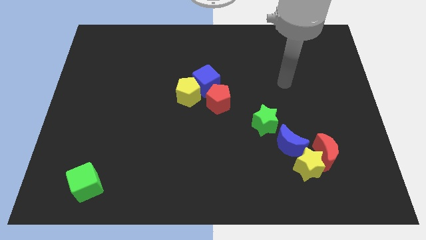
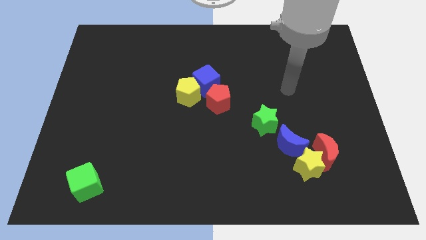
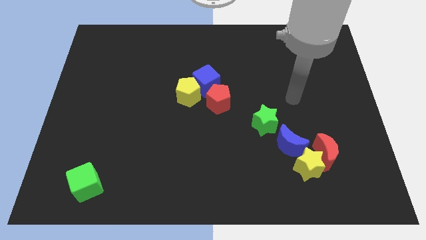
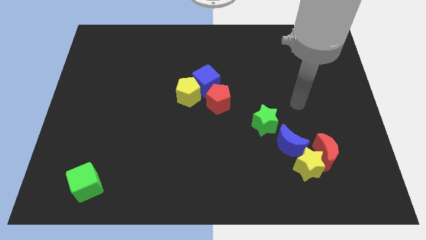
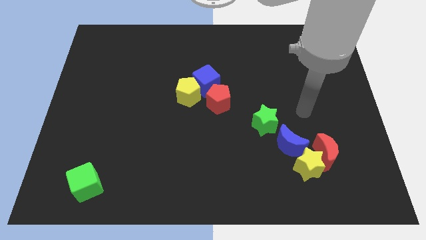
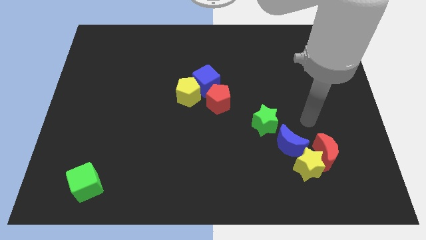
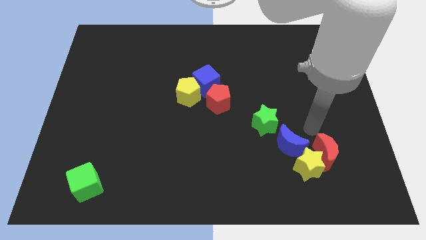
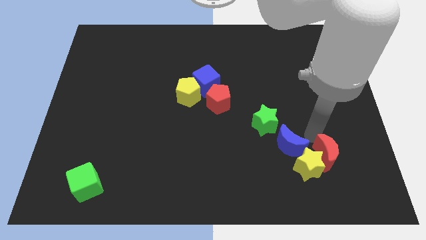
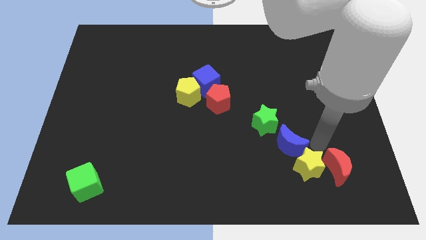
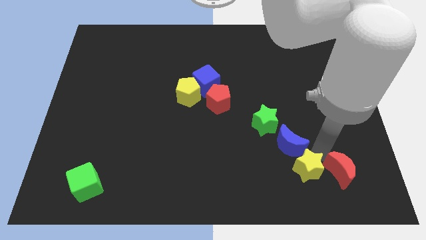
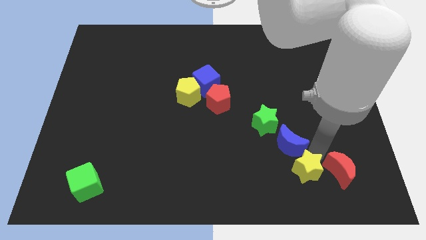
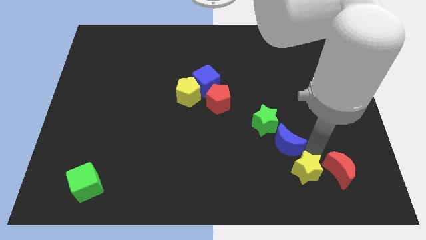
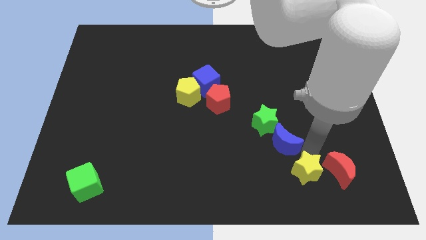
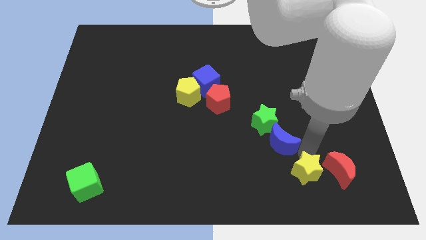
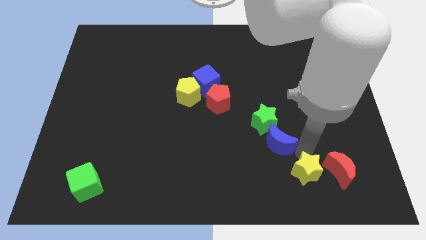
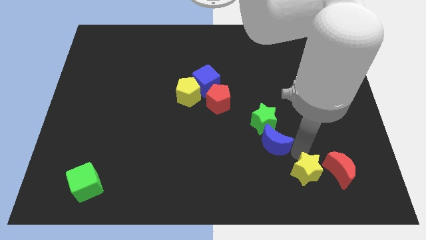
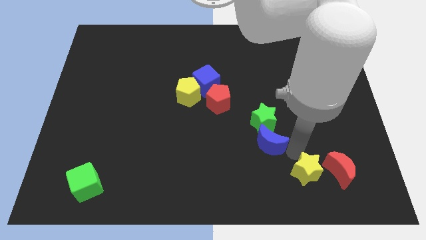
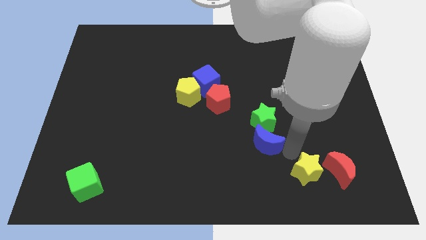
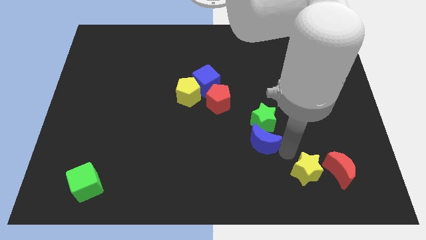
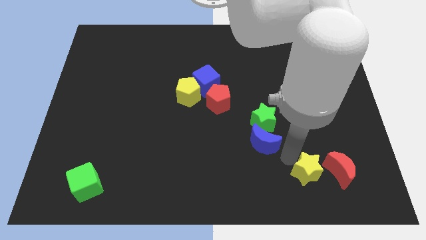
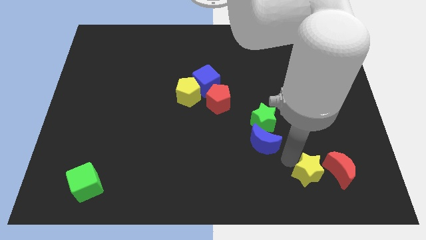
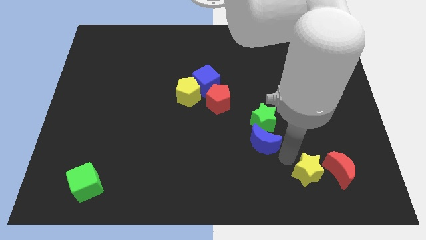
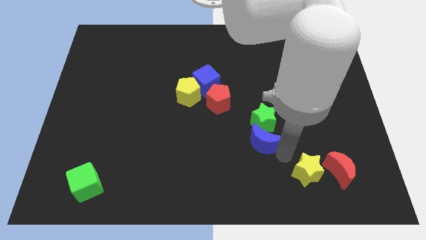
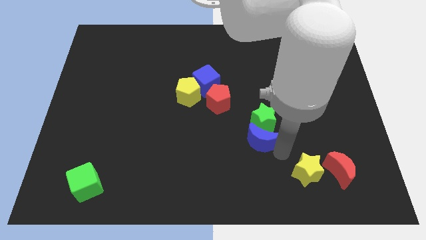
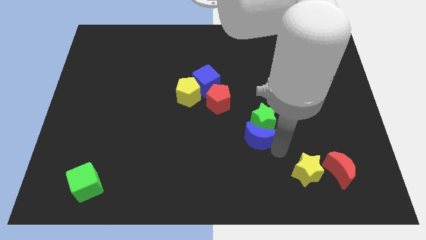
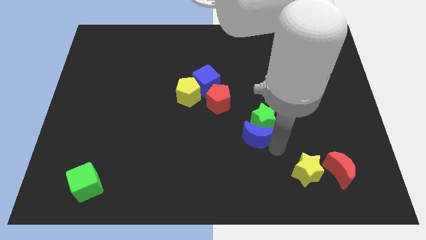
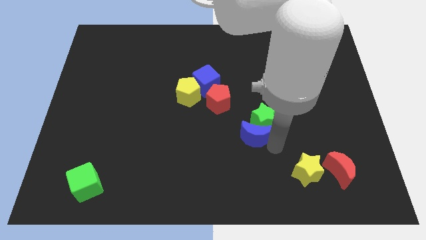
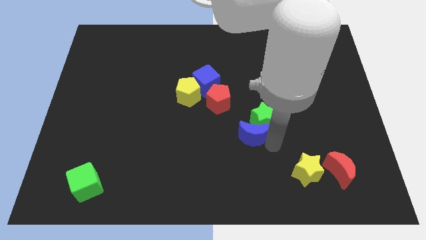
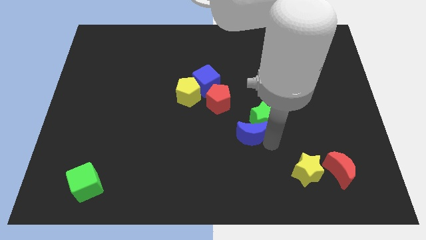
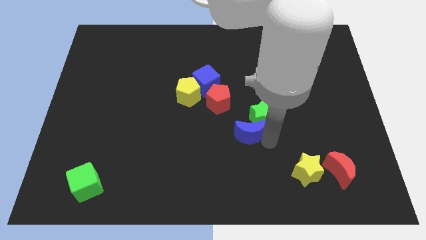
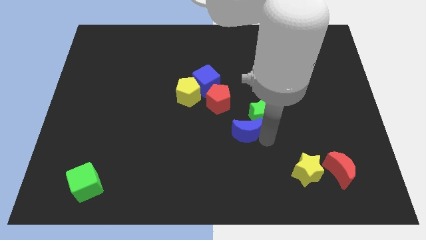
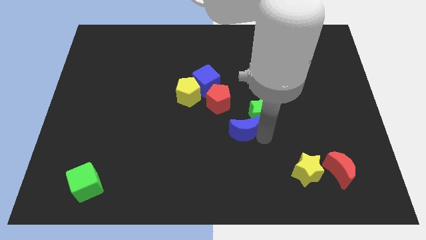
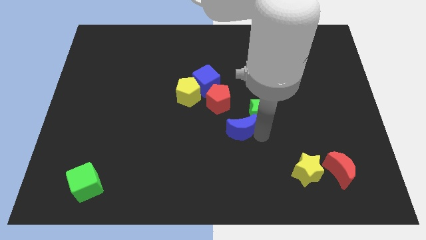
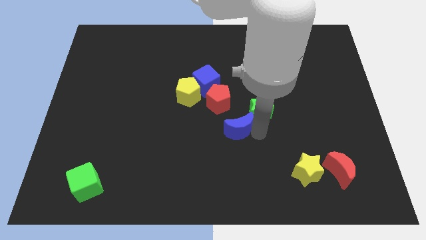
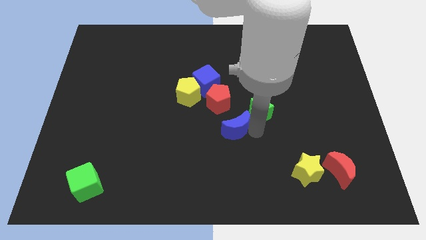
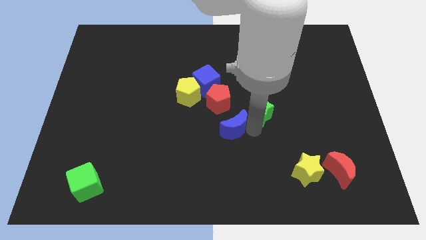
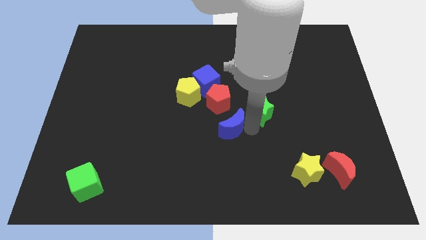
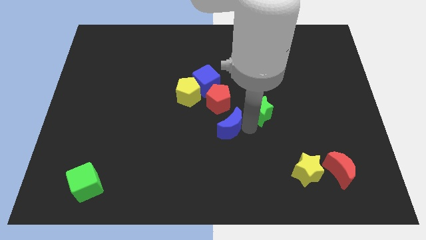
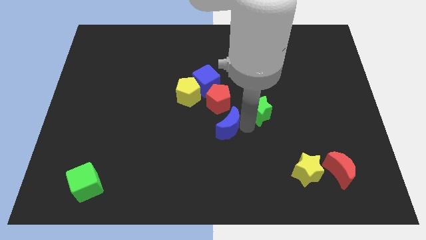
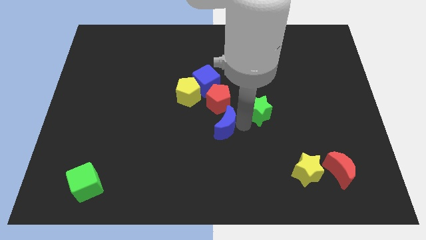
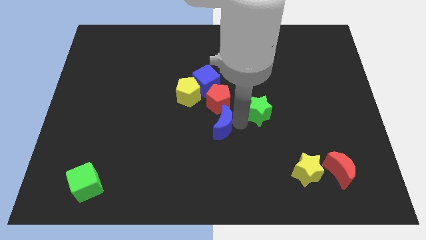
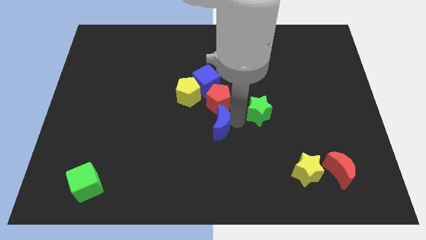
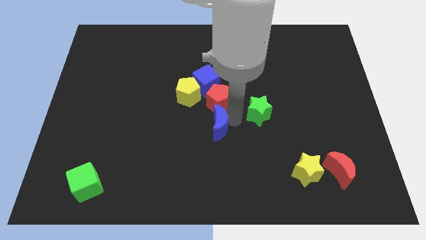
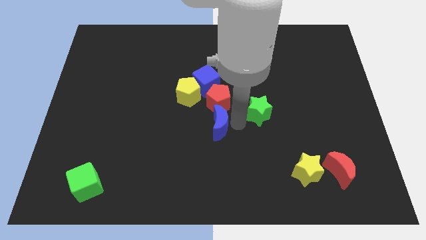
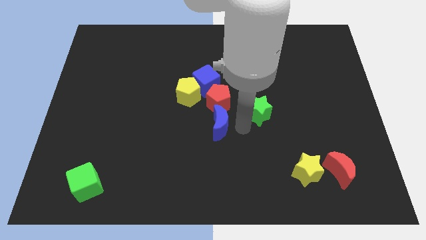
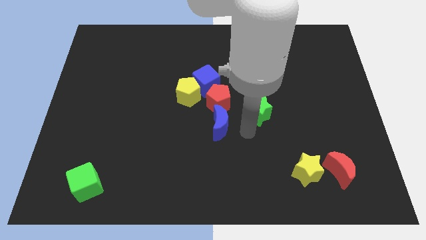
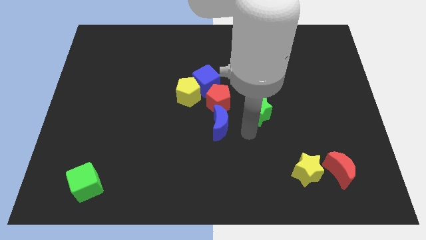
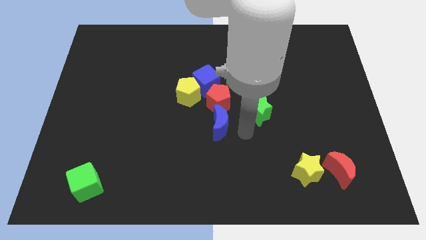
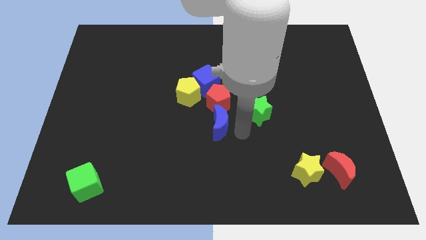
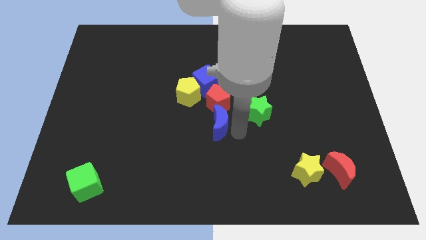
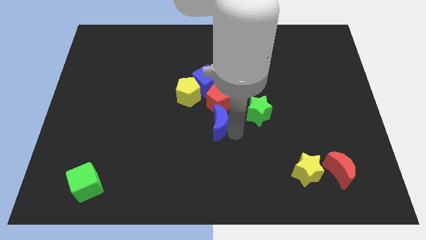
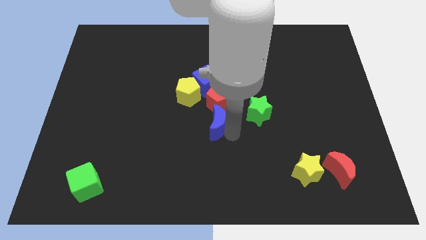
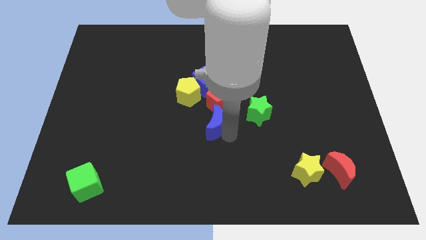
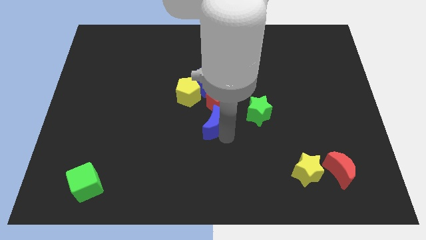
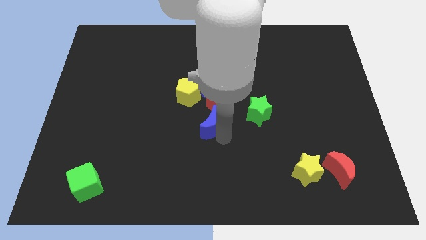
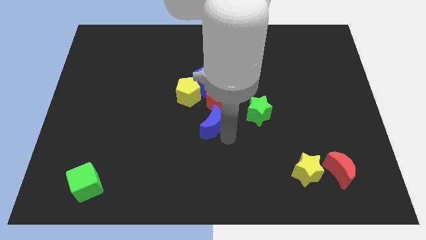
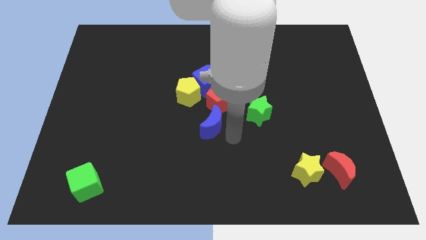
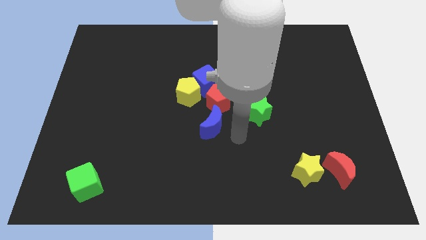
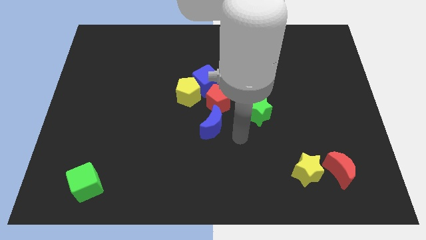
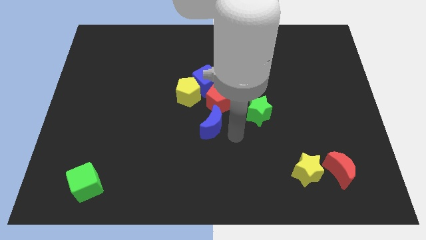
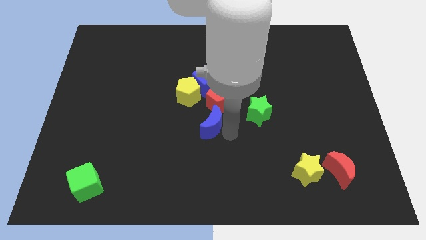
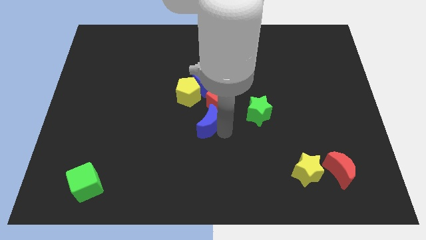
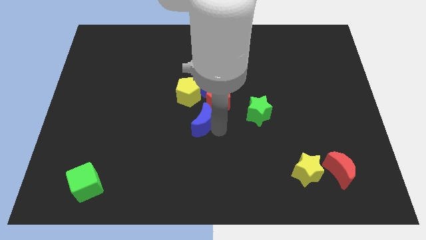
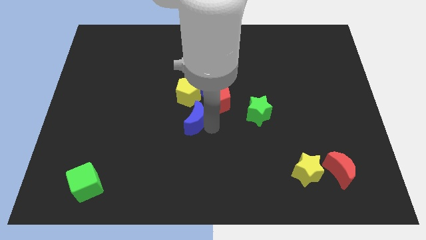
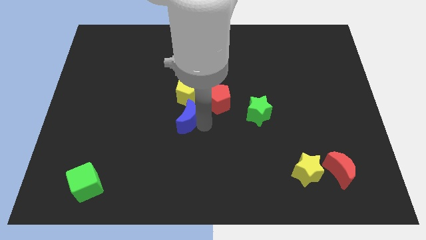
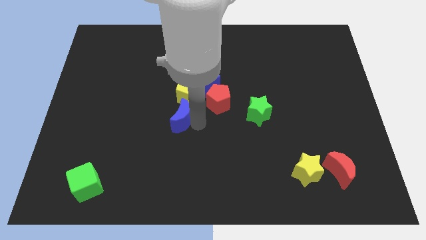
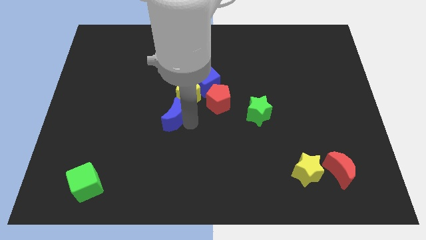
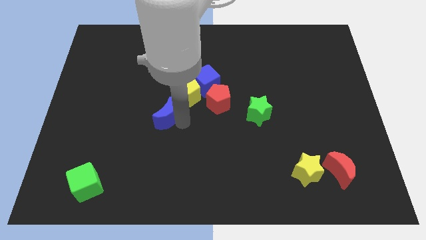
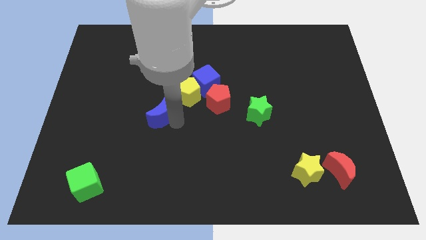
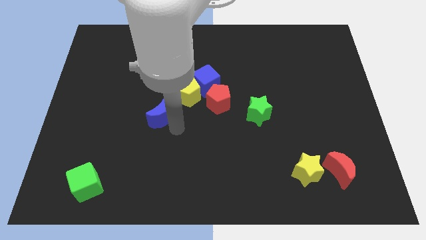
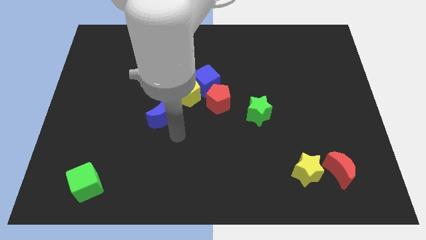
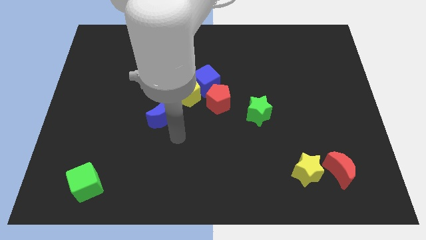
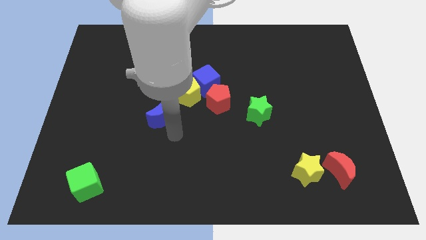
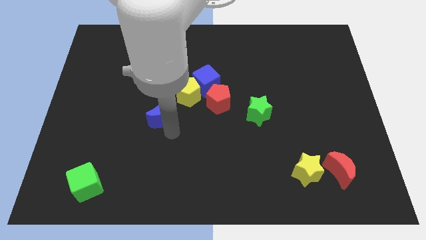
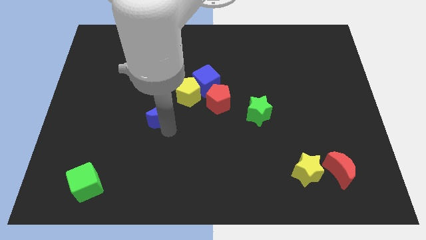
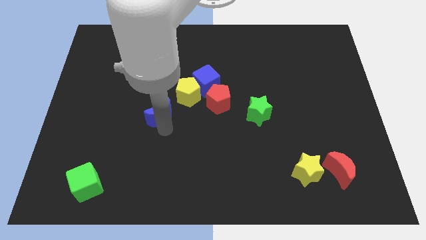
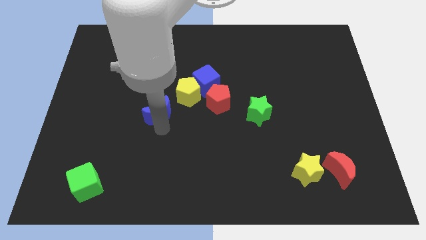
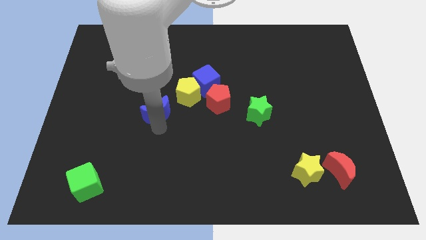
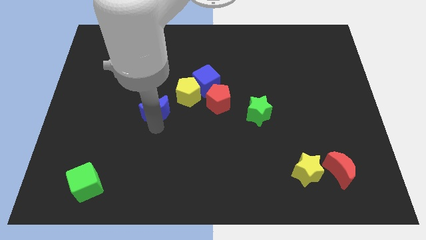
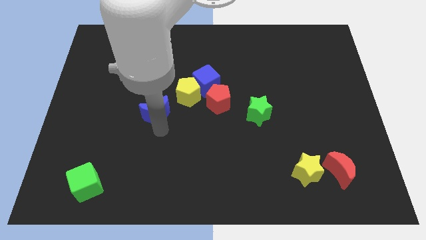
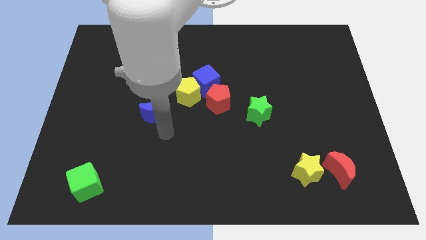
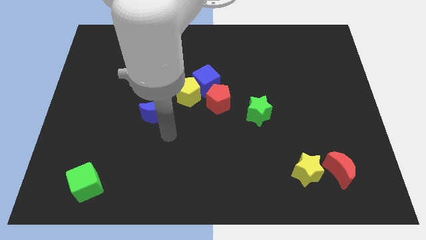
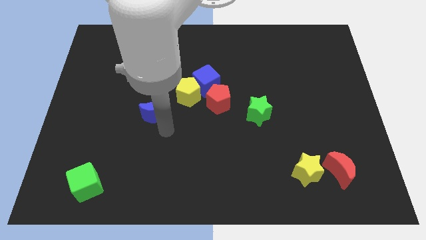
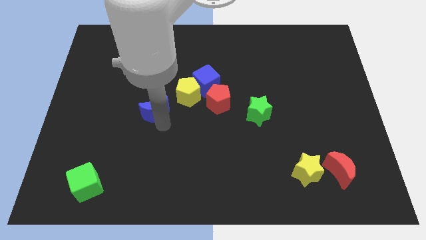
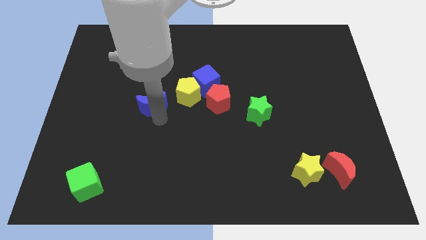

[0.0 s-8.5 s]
move the blue moon to the left side of the yellow pentagon
